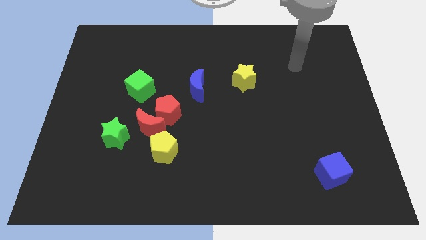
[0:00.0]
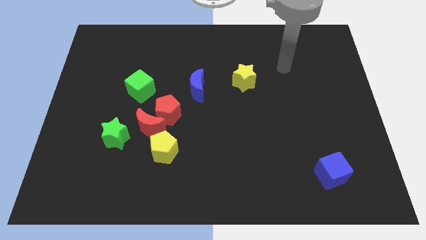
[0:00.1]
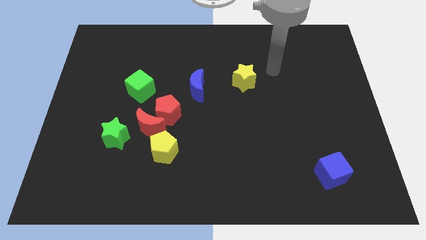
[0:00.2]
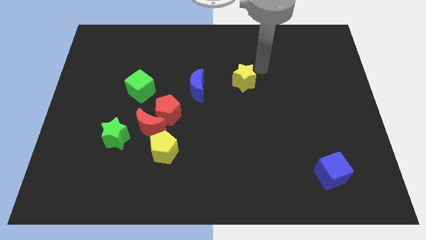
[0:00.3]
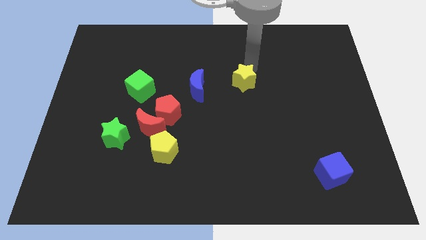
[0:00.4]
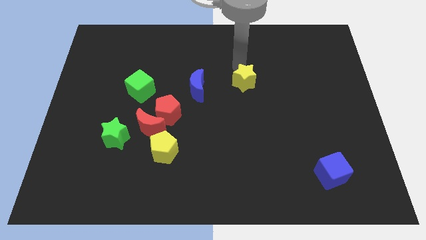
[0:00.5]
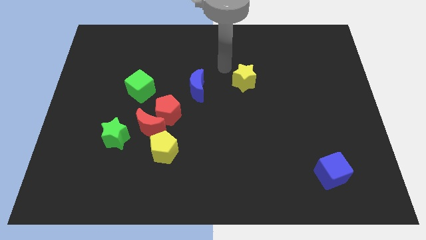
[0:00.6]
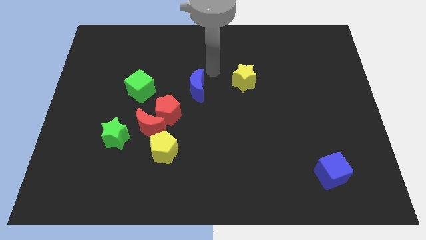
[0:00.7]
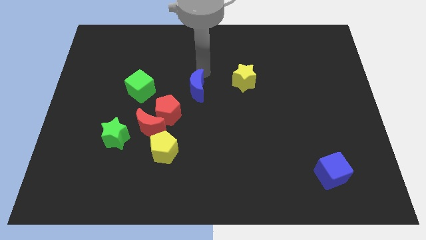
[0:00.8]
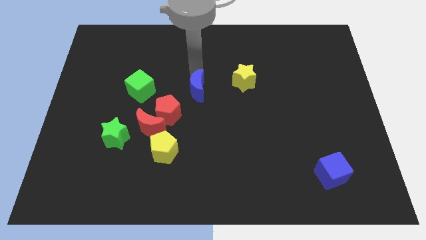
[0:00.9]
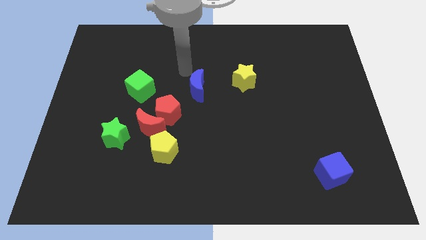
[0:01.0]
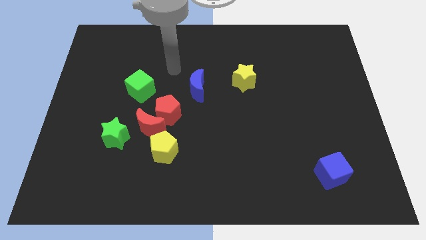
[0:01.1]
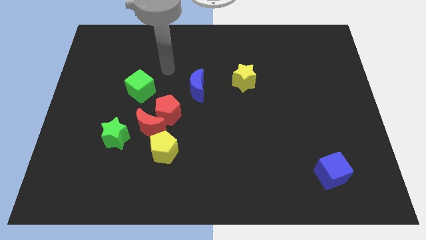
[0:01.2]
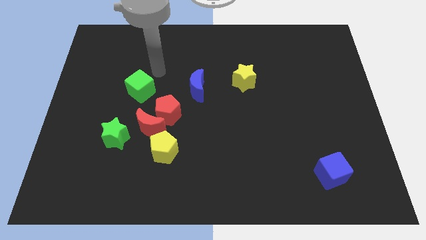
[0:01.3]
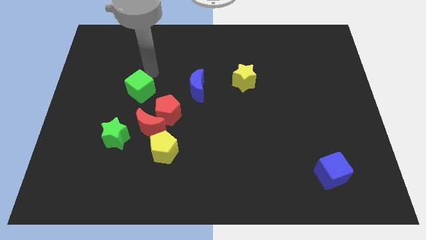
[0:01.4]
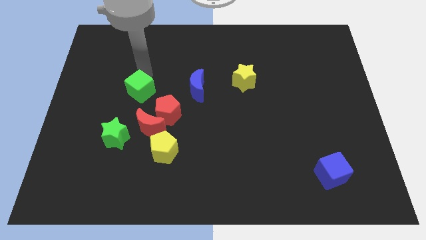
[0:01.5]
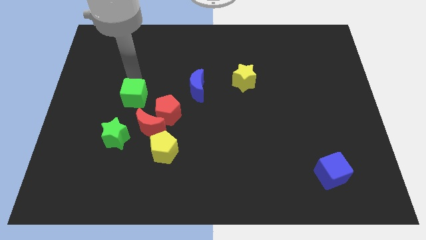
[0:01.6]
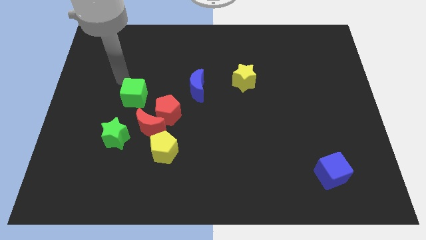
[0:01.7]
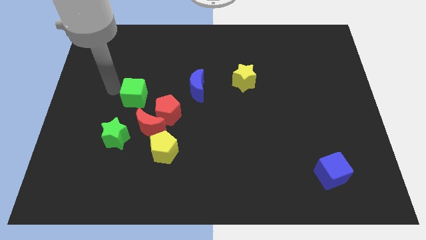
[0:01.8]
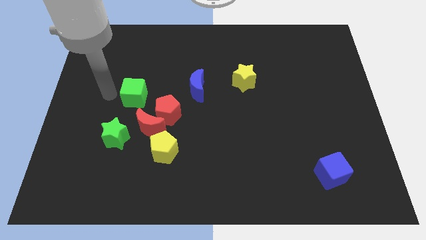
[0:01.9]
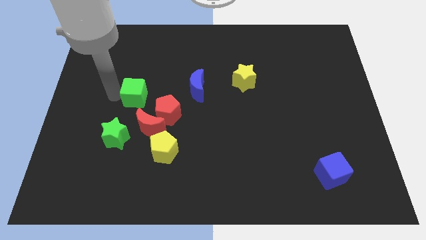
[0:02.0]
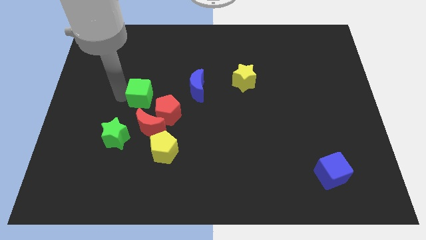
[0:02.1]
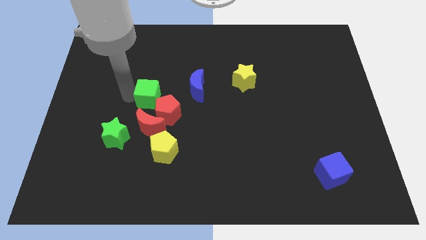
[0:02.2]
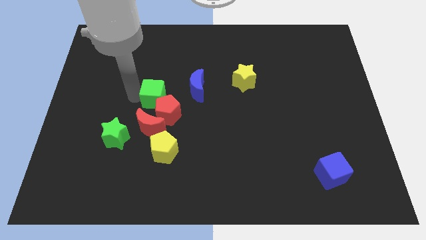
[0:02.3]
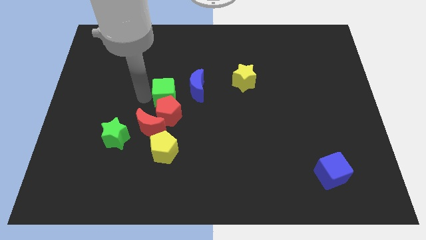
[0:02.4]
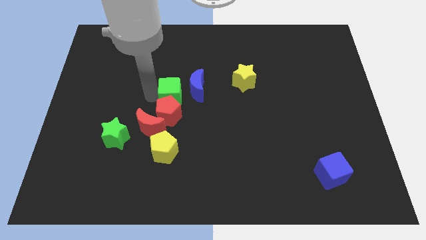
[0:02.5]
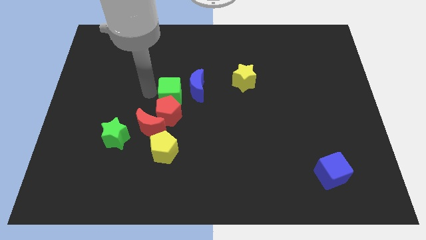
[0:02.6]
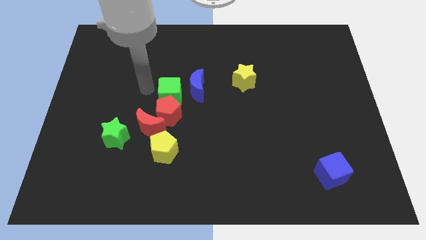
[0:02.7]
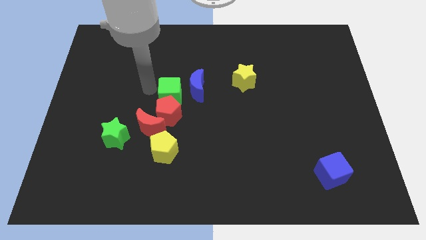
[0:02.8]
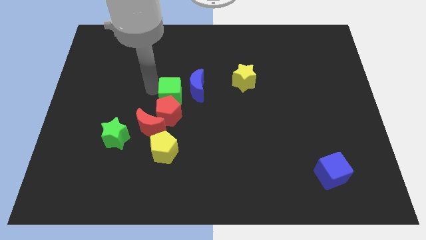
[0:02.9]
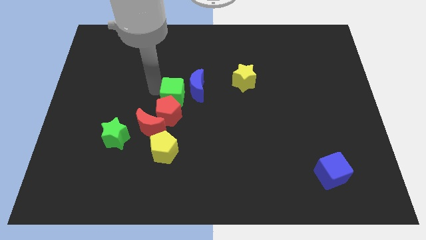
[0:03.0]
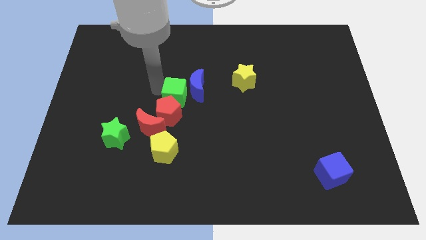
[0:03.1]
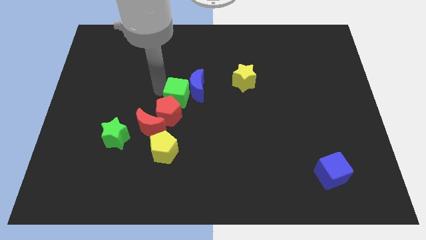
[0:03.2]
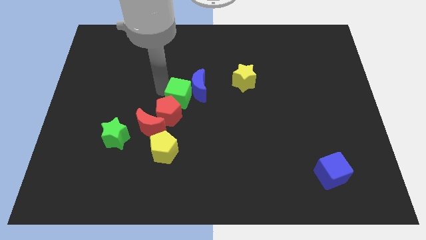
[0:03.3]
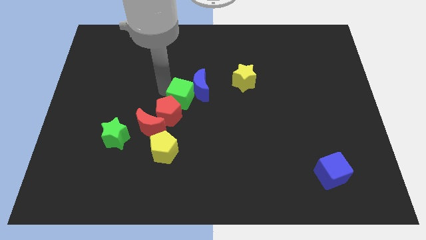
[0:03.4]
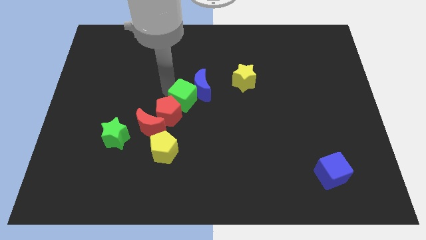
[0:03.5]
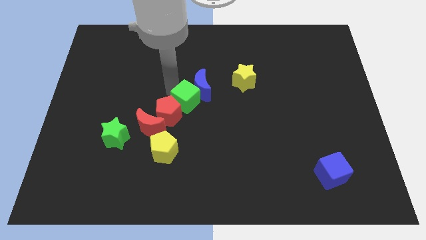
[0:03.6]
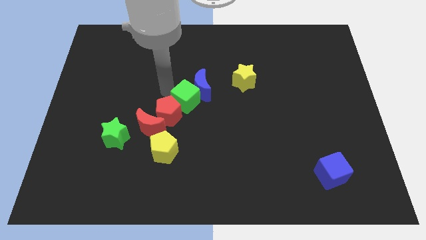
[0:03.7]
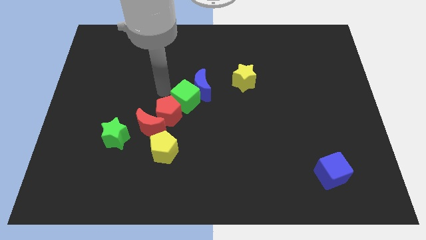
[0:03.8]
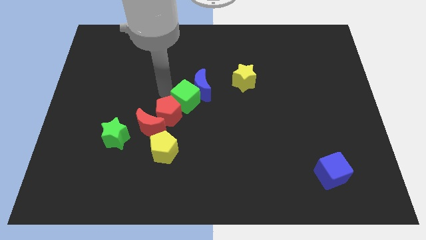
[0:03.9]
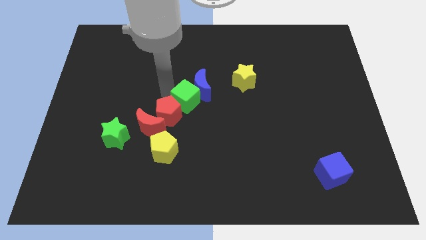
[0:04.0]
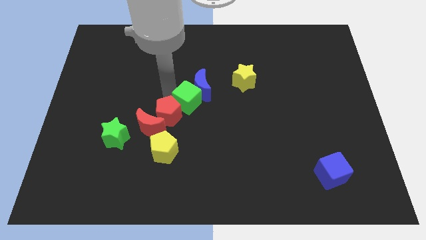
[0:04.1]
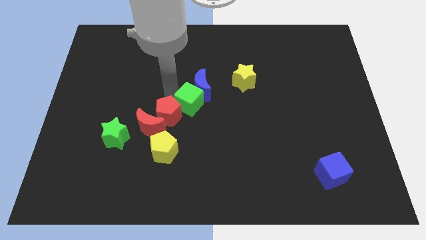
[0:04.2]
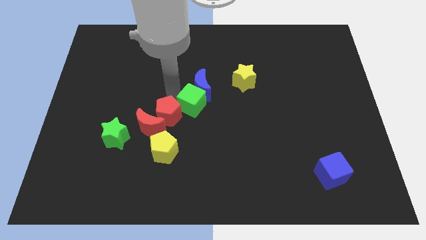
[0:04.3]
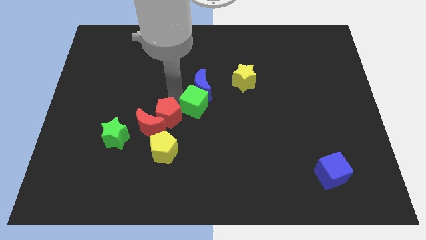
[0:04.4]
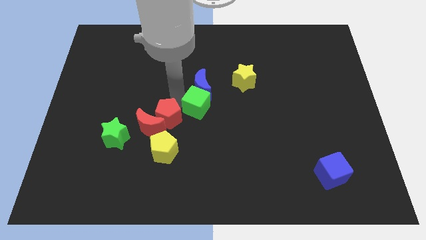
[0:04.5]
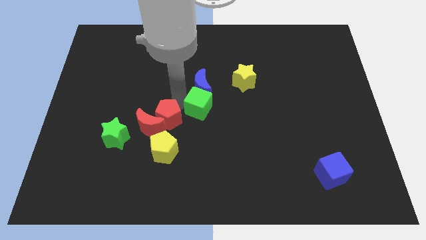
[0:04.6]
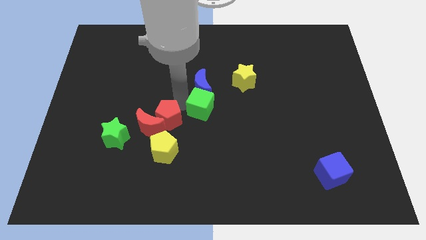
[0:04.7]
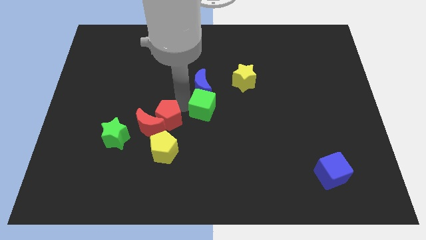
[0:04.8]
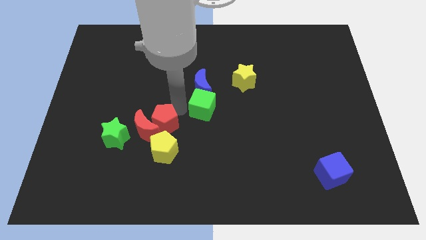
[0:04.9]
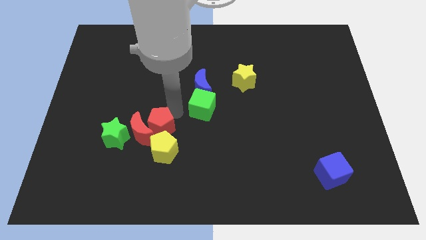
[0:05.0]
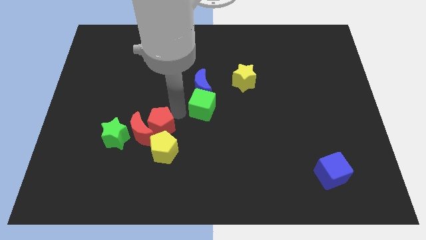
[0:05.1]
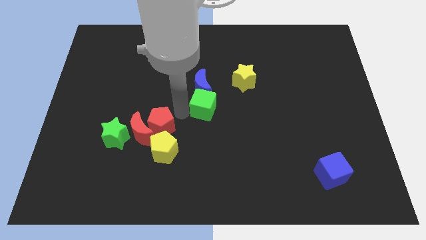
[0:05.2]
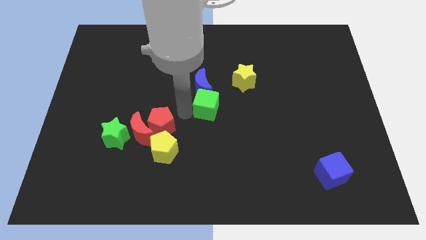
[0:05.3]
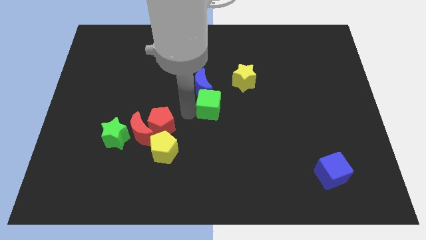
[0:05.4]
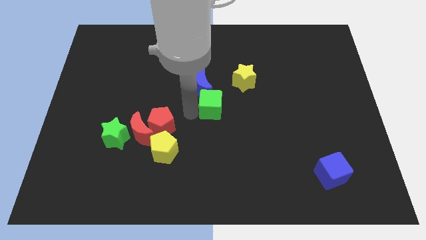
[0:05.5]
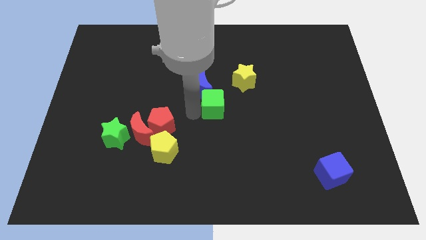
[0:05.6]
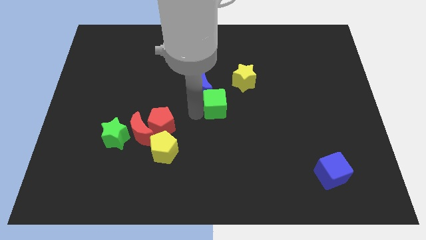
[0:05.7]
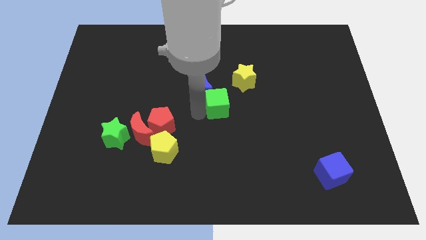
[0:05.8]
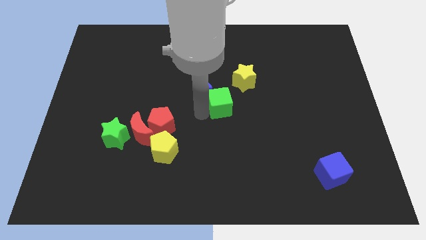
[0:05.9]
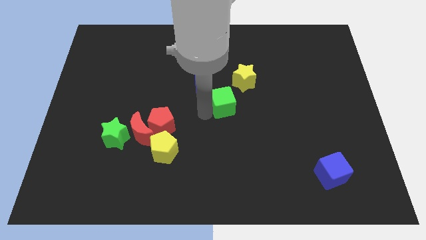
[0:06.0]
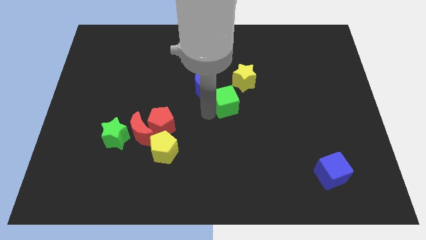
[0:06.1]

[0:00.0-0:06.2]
slide the green cube right

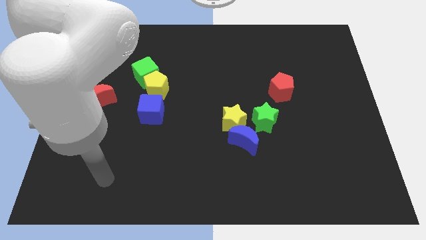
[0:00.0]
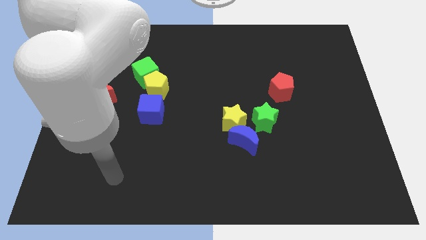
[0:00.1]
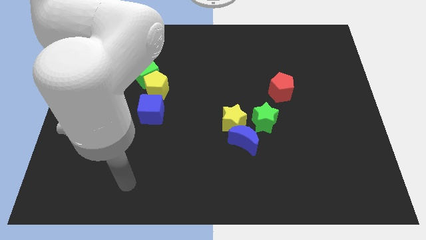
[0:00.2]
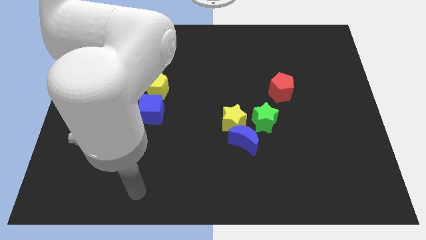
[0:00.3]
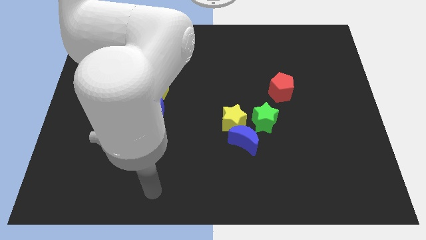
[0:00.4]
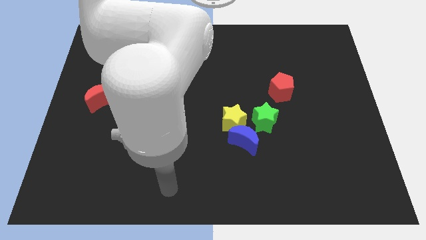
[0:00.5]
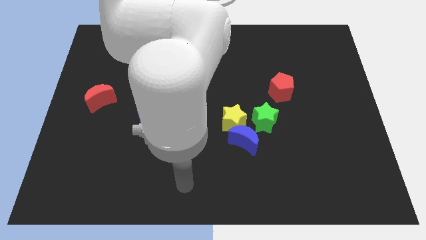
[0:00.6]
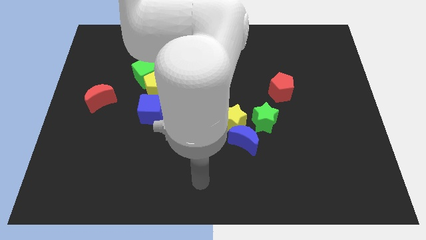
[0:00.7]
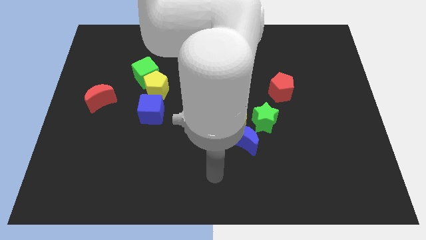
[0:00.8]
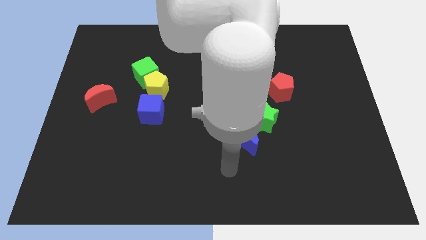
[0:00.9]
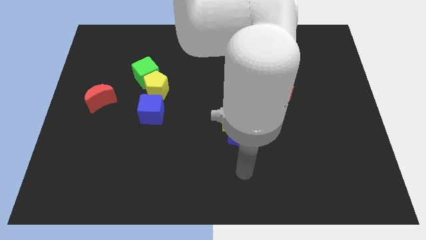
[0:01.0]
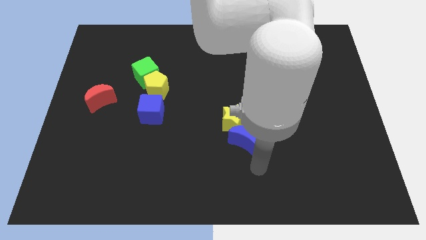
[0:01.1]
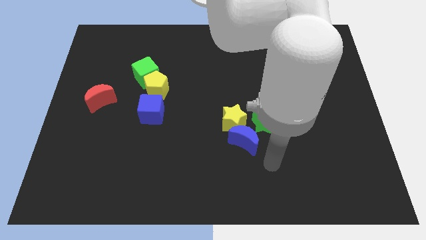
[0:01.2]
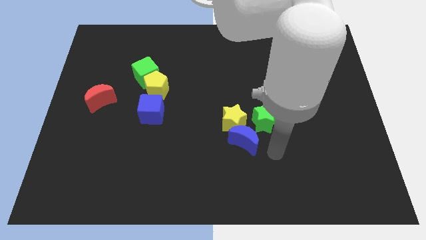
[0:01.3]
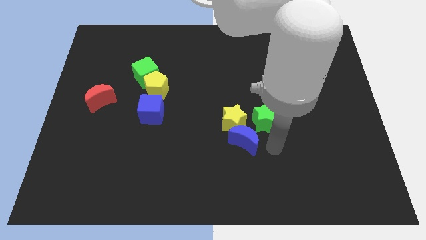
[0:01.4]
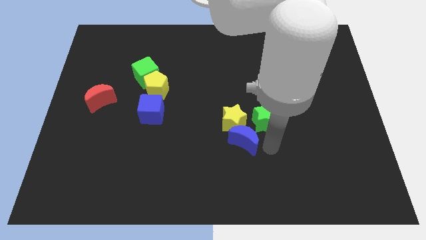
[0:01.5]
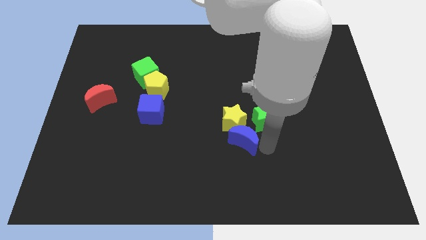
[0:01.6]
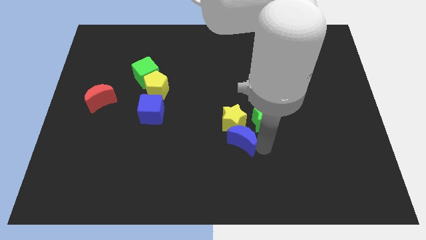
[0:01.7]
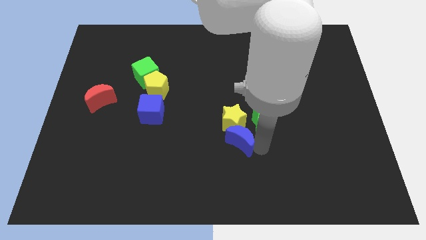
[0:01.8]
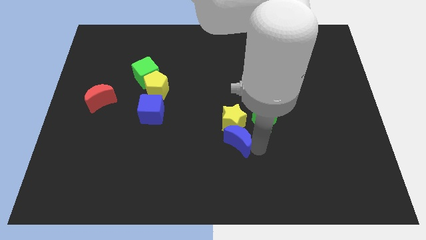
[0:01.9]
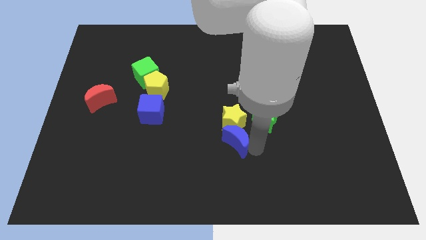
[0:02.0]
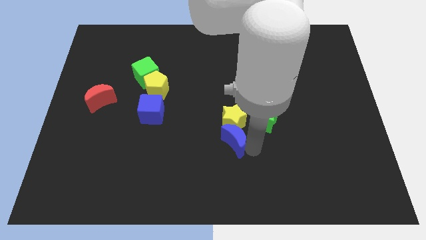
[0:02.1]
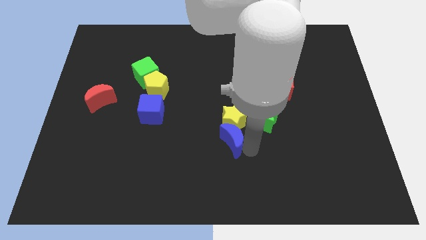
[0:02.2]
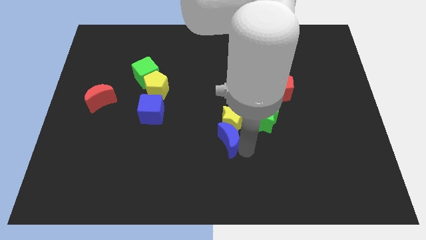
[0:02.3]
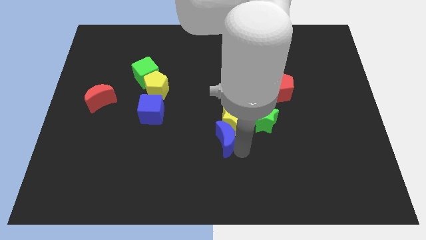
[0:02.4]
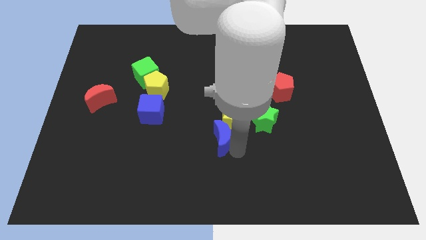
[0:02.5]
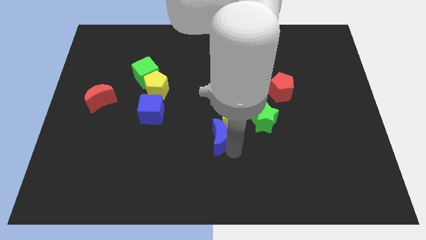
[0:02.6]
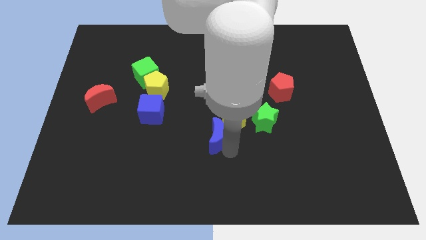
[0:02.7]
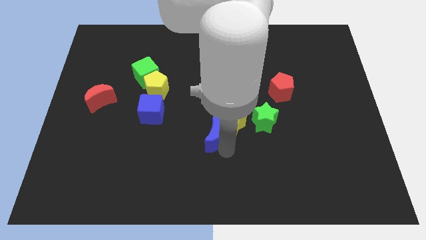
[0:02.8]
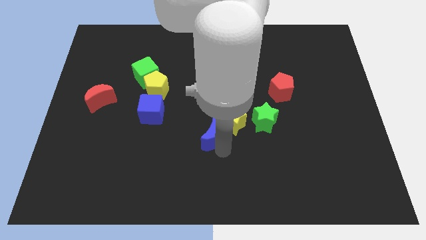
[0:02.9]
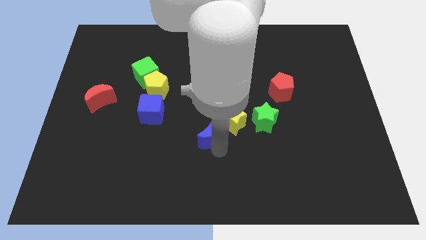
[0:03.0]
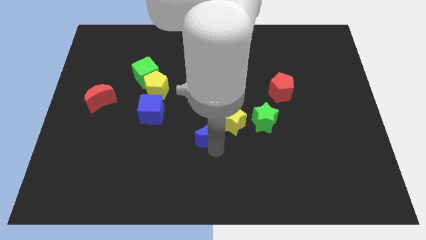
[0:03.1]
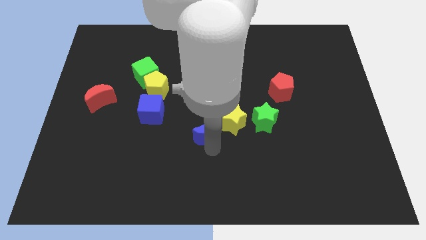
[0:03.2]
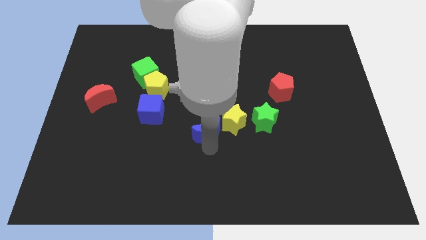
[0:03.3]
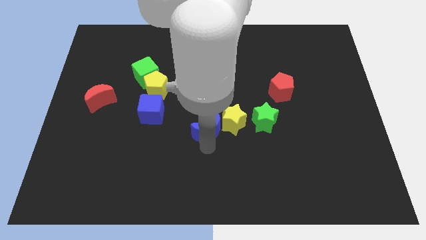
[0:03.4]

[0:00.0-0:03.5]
slide the blue moon upwards and to the left slightly
